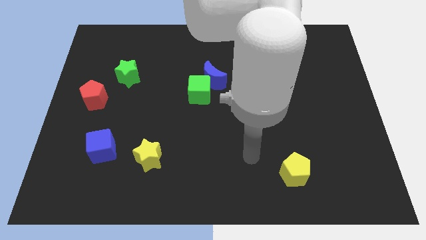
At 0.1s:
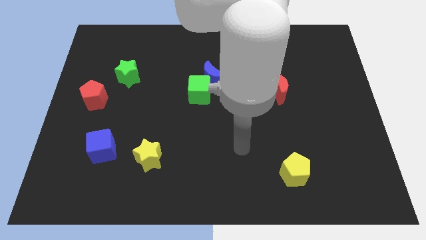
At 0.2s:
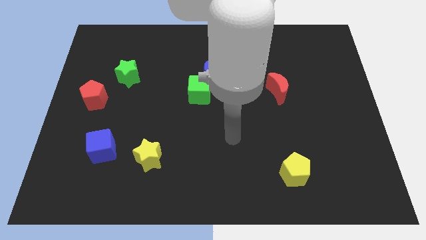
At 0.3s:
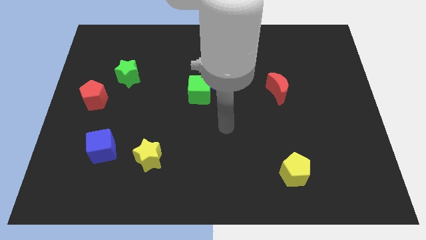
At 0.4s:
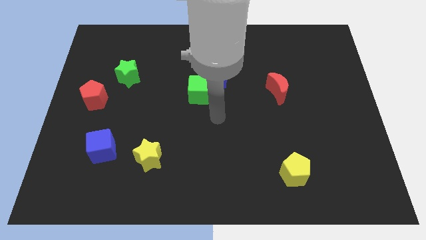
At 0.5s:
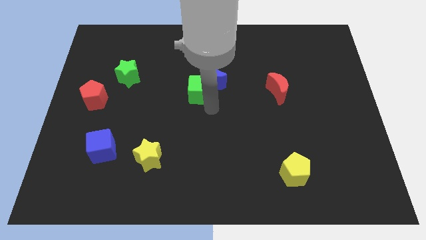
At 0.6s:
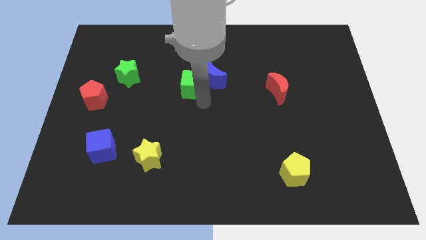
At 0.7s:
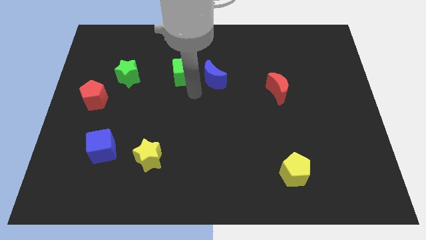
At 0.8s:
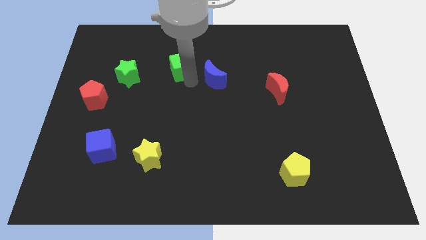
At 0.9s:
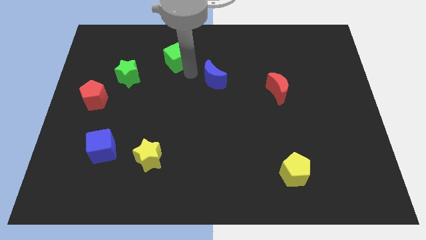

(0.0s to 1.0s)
pull the blue moon apart from the green cube

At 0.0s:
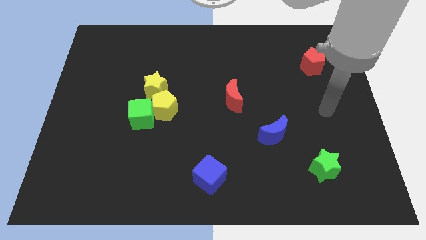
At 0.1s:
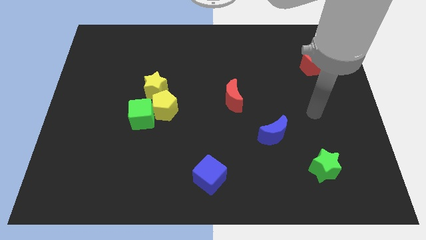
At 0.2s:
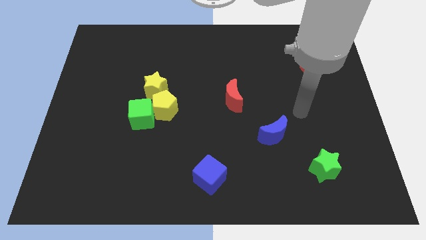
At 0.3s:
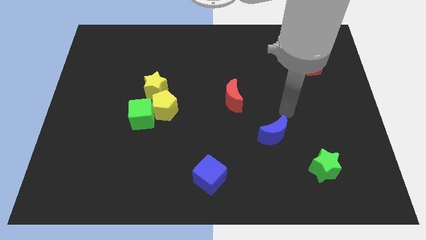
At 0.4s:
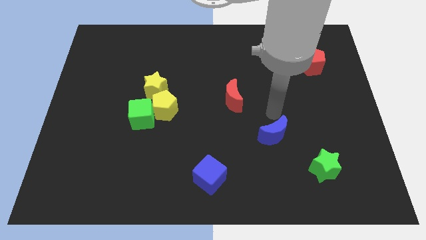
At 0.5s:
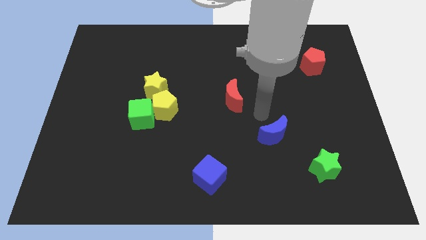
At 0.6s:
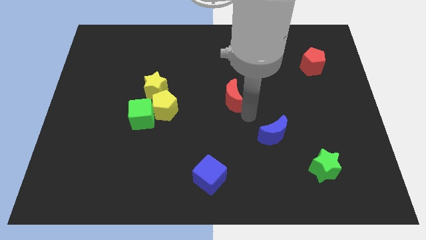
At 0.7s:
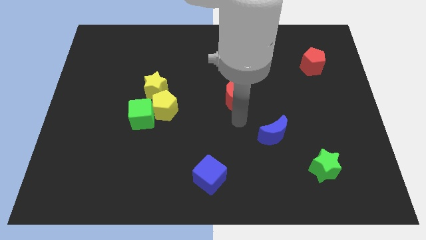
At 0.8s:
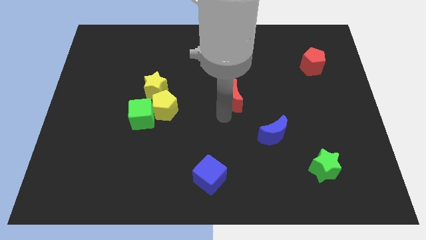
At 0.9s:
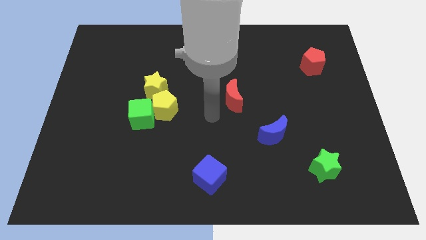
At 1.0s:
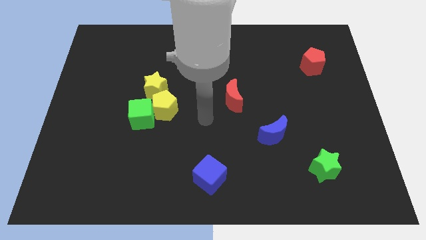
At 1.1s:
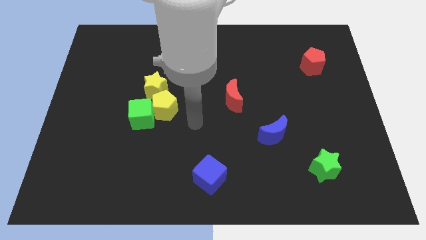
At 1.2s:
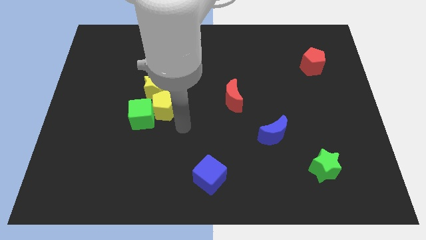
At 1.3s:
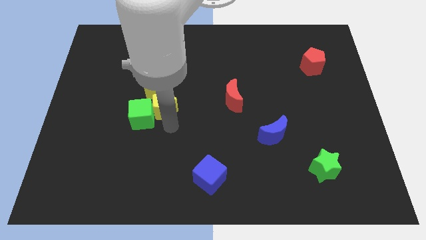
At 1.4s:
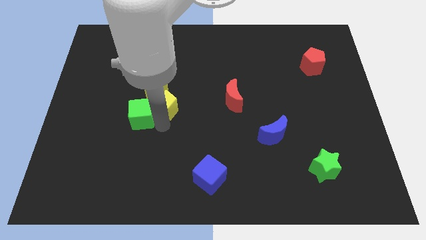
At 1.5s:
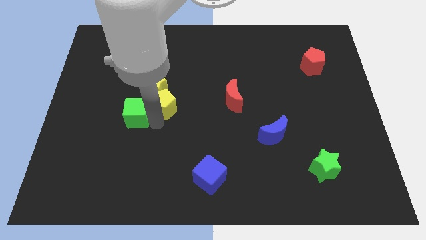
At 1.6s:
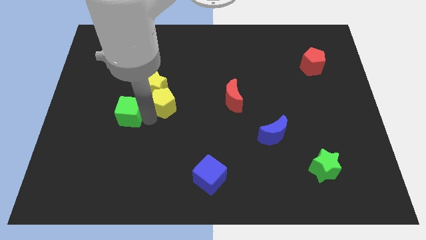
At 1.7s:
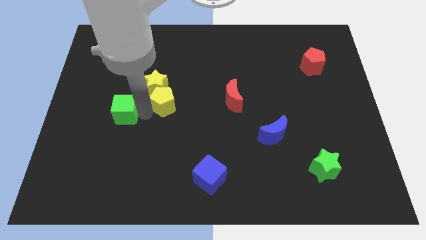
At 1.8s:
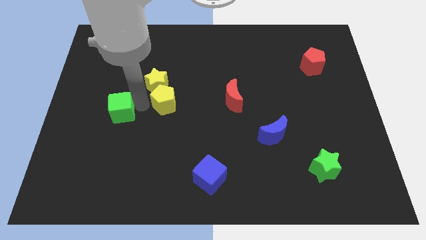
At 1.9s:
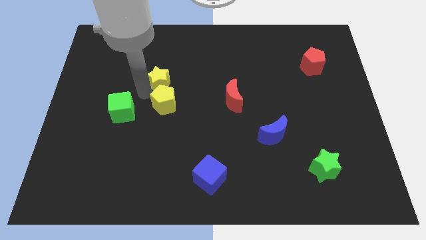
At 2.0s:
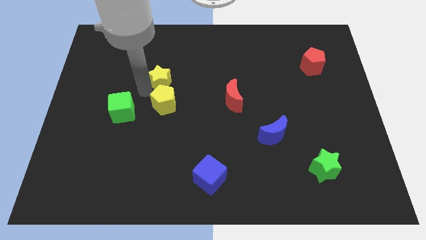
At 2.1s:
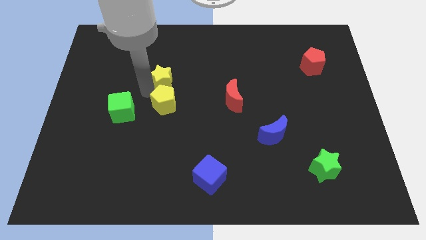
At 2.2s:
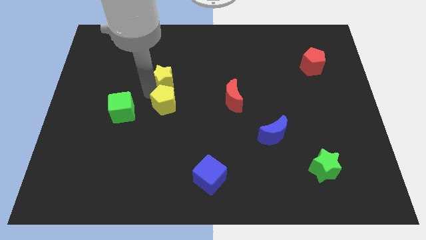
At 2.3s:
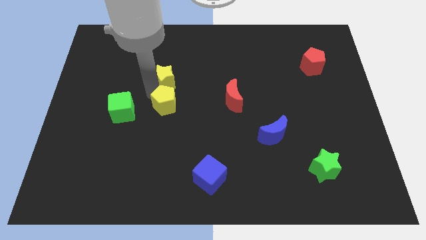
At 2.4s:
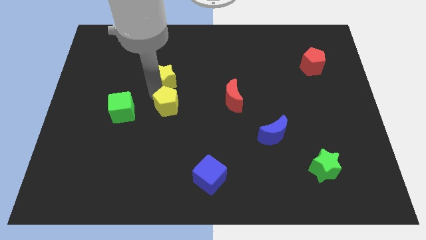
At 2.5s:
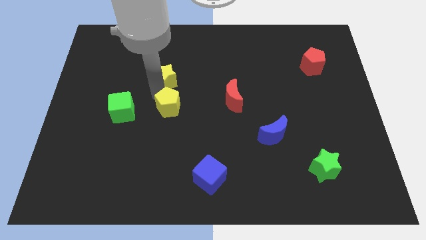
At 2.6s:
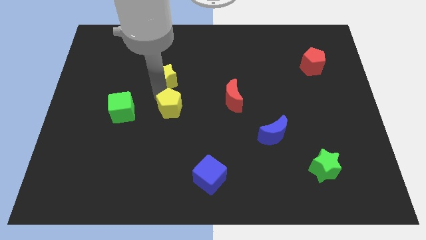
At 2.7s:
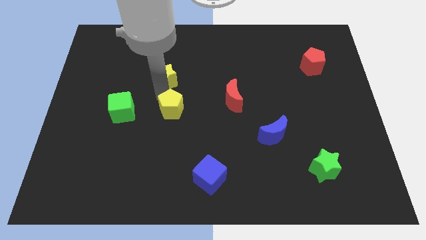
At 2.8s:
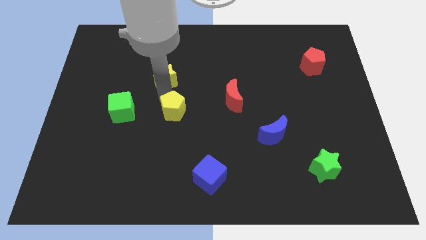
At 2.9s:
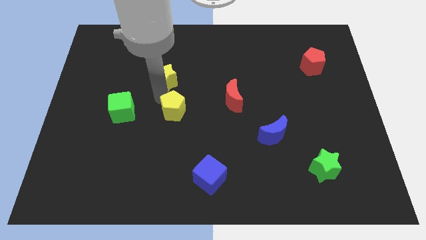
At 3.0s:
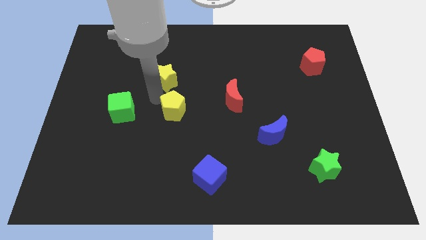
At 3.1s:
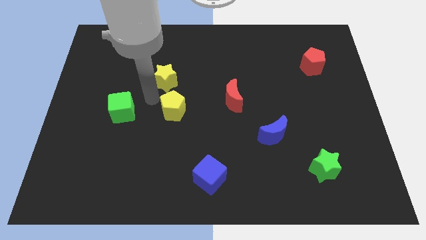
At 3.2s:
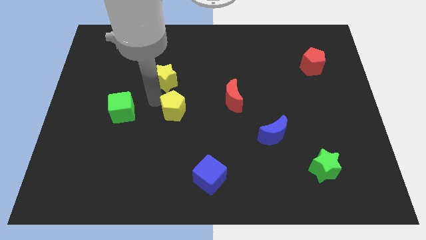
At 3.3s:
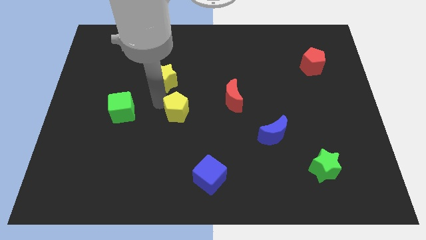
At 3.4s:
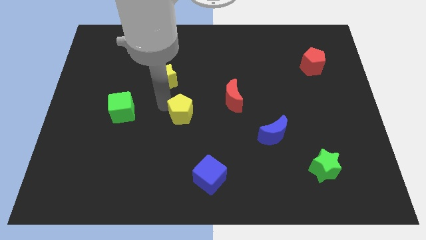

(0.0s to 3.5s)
pull the yellow pentagon apart from the green cube and yellow star

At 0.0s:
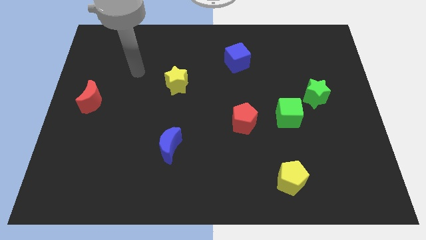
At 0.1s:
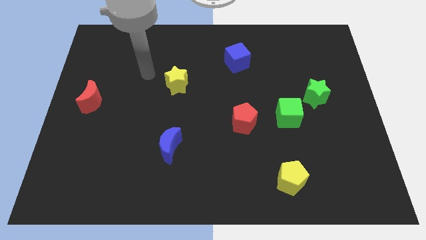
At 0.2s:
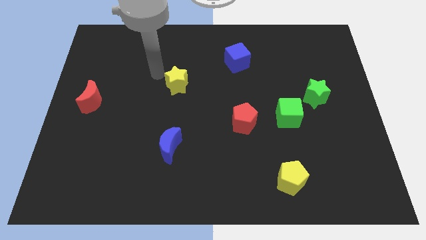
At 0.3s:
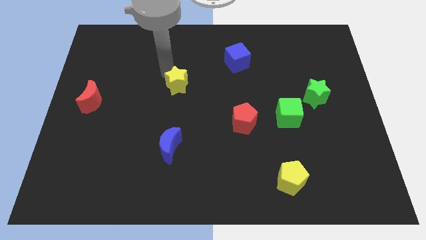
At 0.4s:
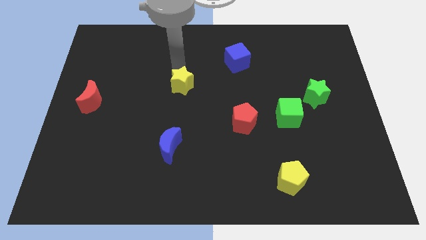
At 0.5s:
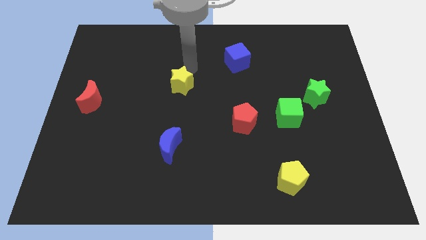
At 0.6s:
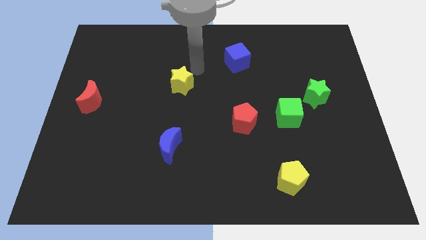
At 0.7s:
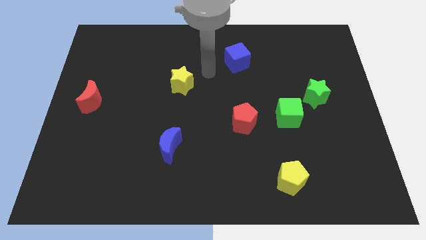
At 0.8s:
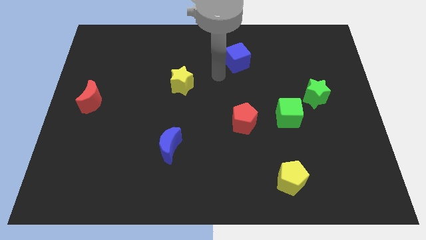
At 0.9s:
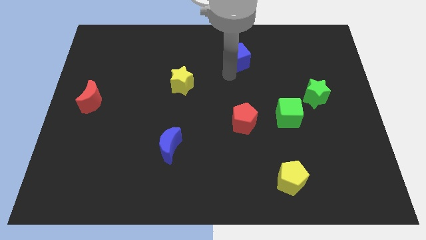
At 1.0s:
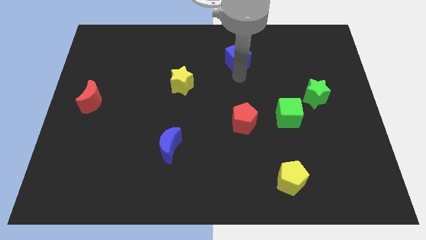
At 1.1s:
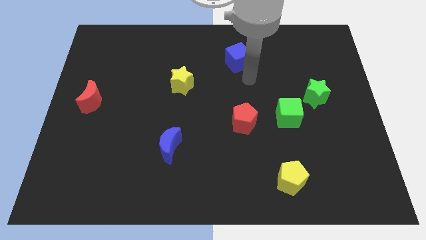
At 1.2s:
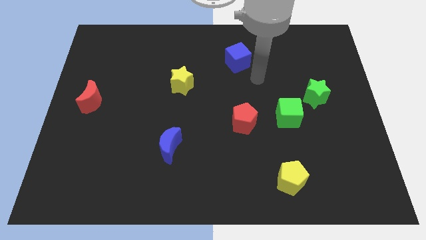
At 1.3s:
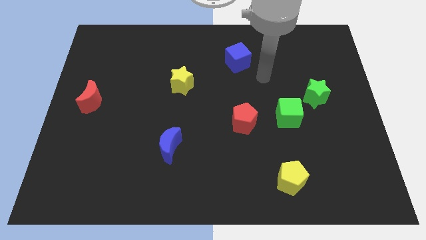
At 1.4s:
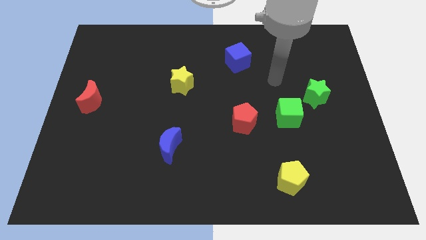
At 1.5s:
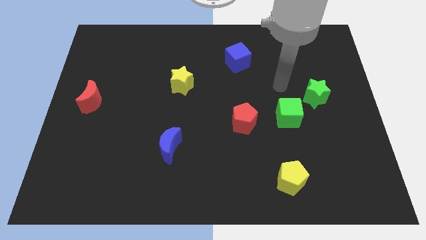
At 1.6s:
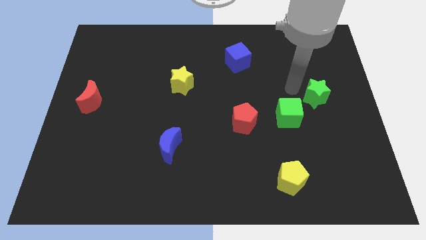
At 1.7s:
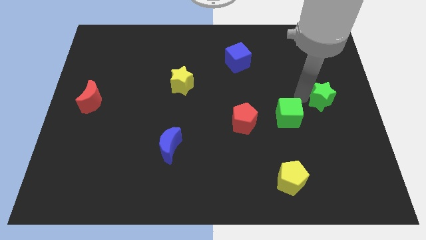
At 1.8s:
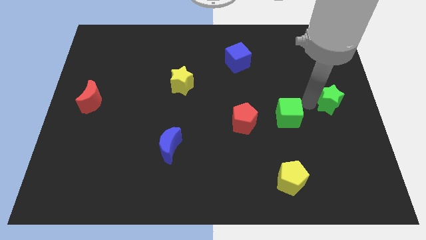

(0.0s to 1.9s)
separate the green cube from the green star

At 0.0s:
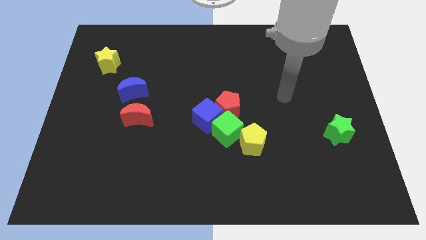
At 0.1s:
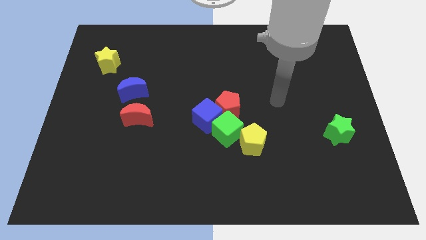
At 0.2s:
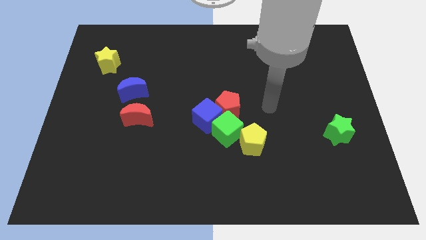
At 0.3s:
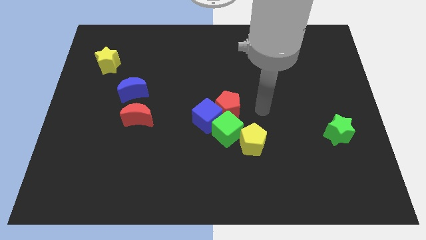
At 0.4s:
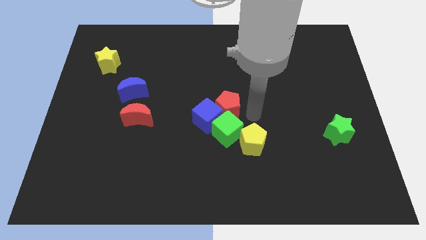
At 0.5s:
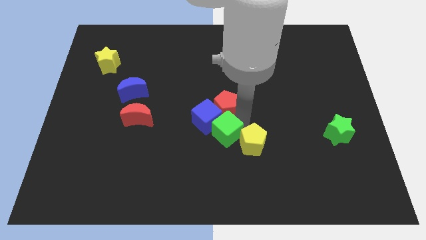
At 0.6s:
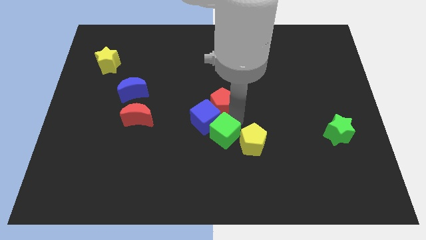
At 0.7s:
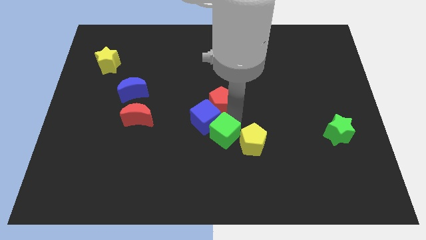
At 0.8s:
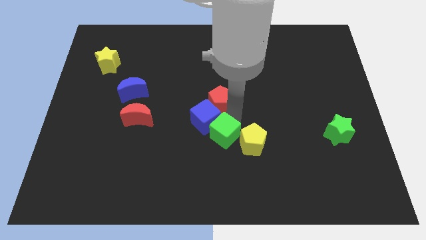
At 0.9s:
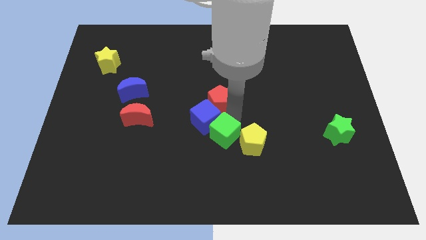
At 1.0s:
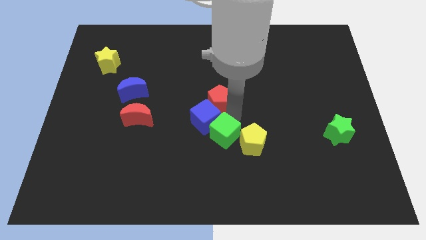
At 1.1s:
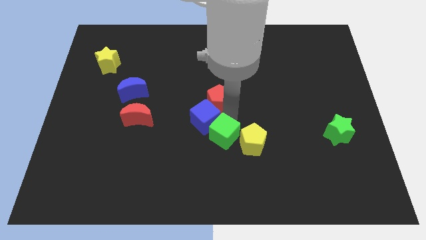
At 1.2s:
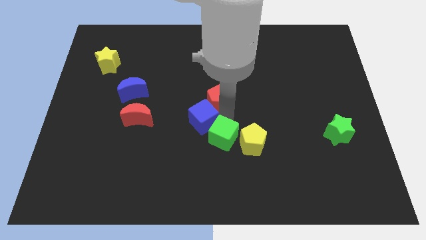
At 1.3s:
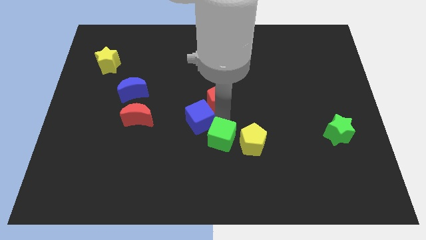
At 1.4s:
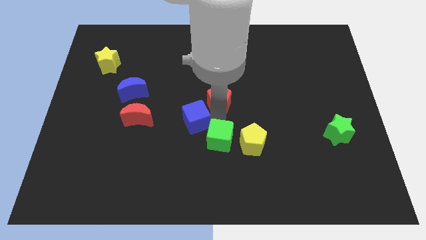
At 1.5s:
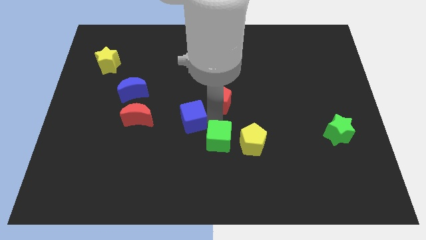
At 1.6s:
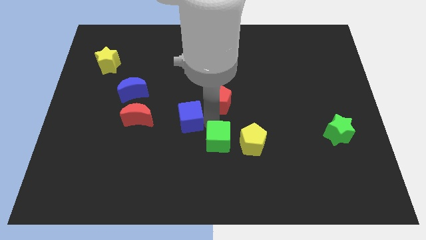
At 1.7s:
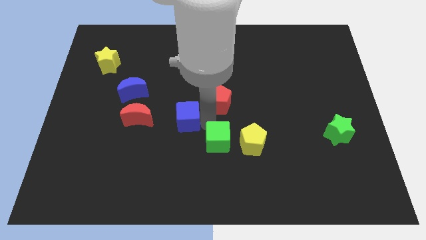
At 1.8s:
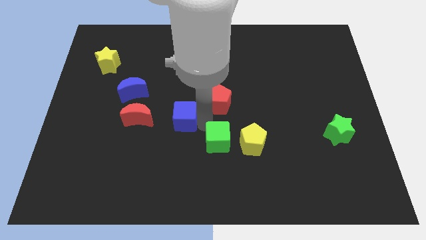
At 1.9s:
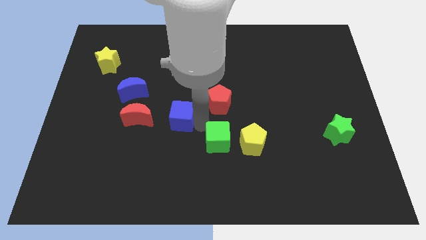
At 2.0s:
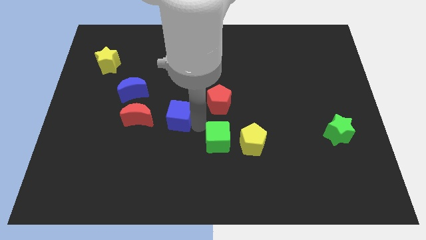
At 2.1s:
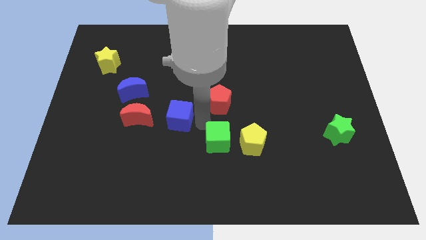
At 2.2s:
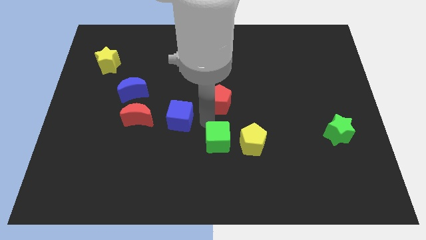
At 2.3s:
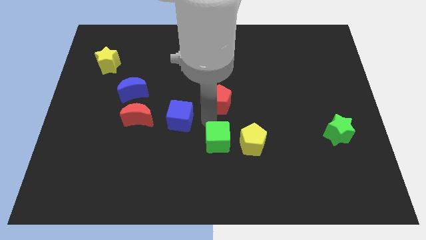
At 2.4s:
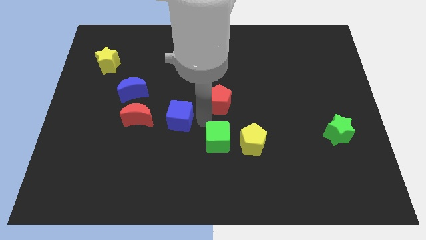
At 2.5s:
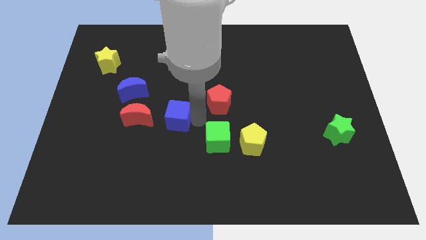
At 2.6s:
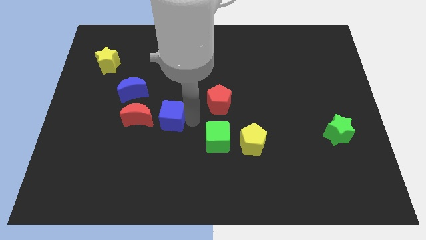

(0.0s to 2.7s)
move the blue cube away from the green cube and red pentagon

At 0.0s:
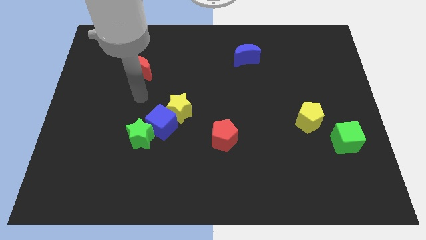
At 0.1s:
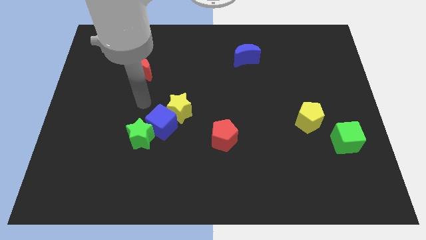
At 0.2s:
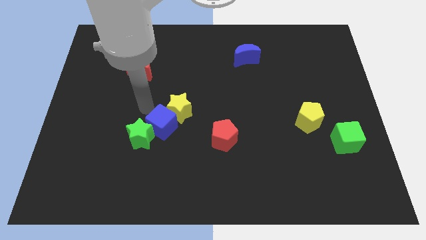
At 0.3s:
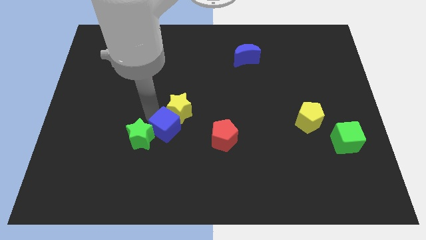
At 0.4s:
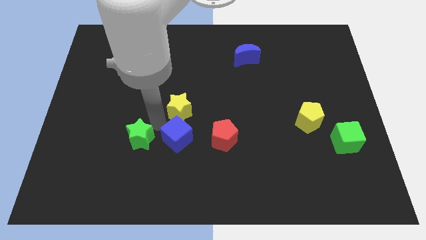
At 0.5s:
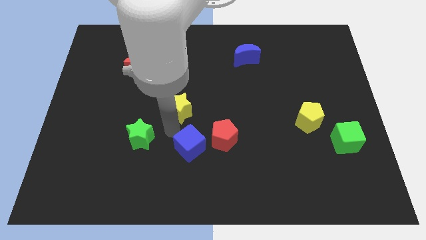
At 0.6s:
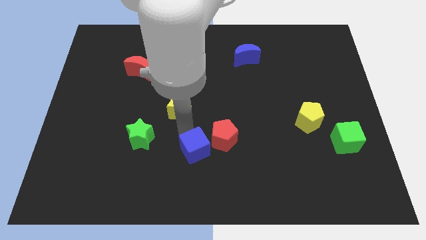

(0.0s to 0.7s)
pull the yellow star apart from the blue cube
